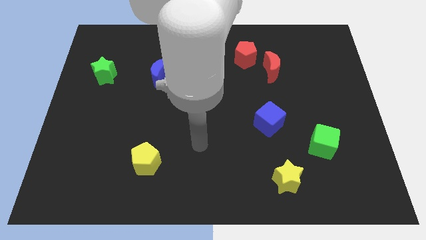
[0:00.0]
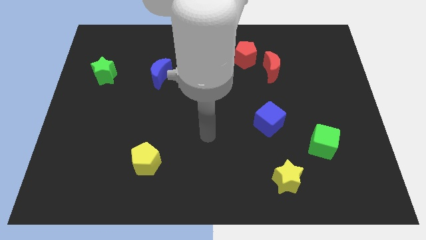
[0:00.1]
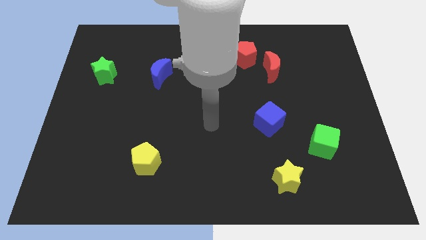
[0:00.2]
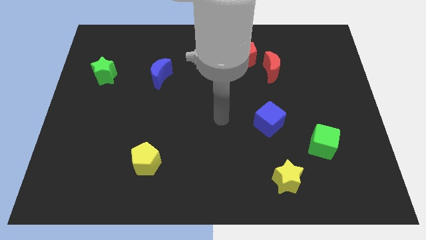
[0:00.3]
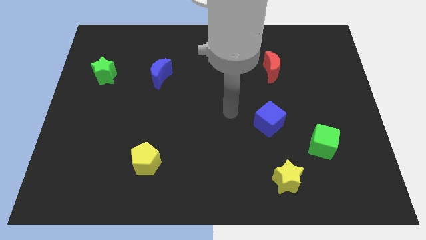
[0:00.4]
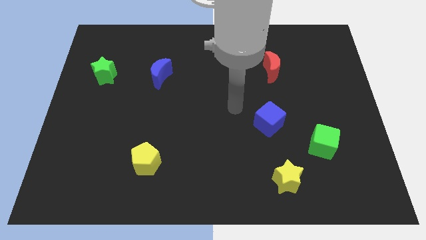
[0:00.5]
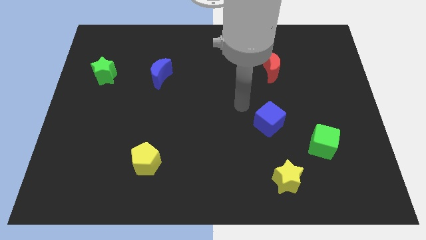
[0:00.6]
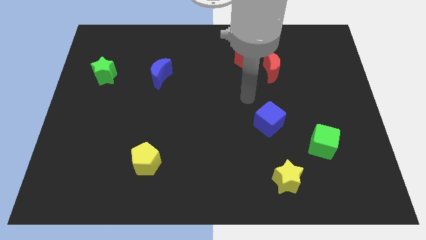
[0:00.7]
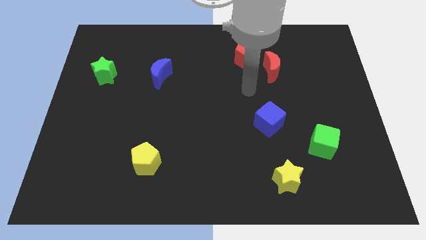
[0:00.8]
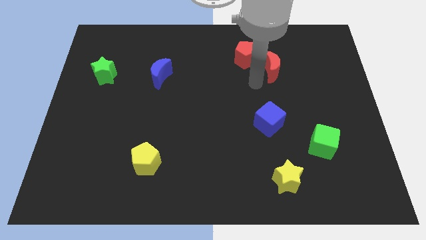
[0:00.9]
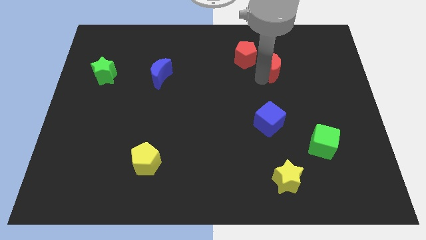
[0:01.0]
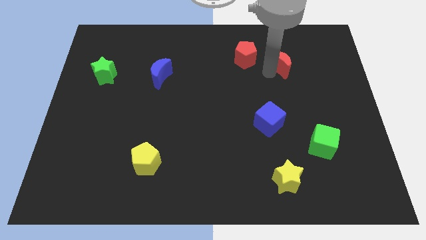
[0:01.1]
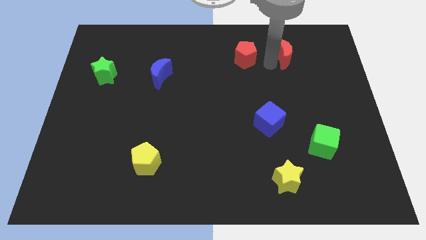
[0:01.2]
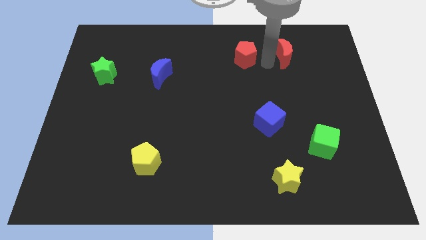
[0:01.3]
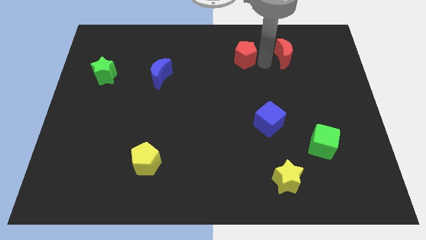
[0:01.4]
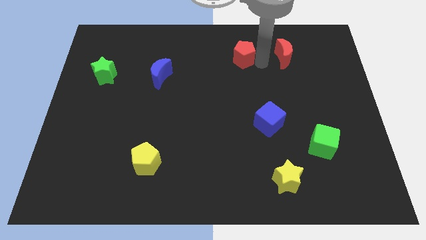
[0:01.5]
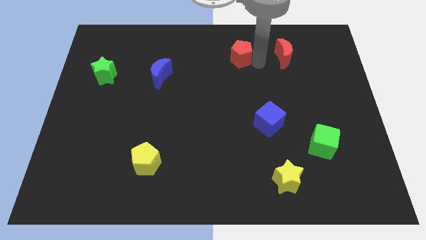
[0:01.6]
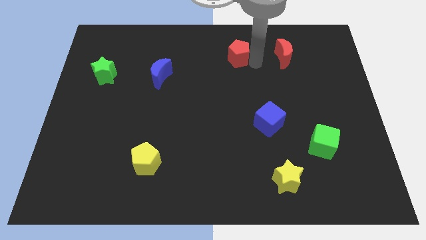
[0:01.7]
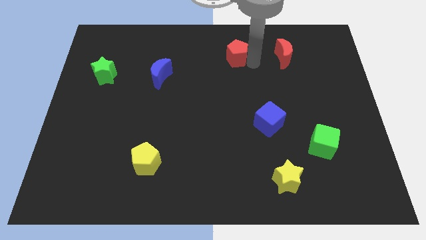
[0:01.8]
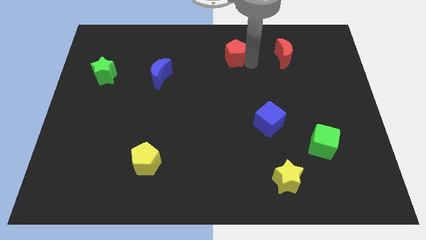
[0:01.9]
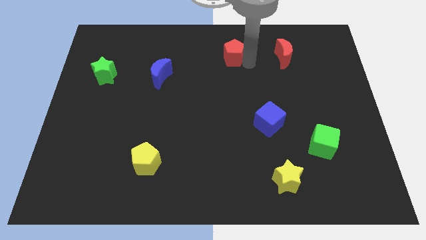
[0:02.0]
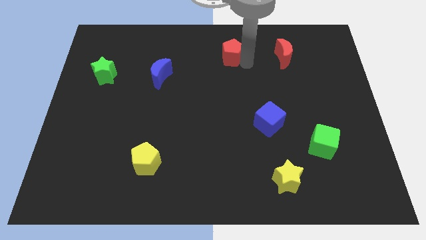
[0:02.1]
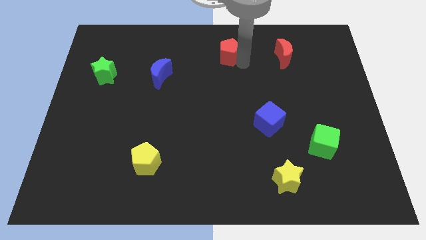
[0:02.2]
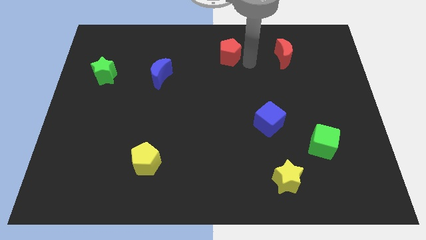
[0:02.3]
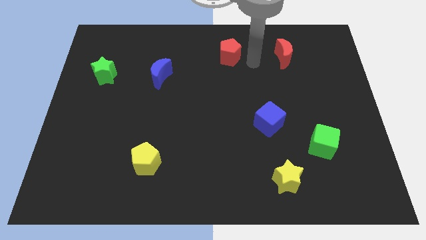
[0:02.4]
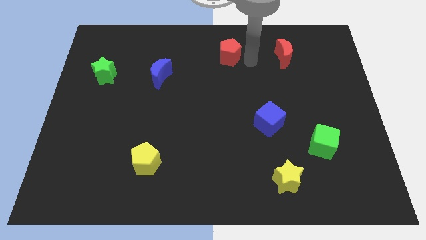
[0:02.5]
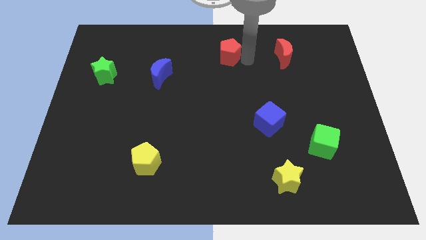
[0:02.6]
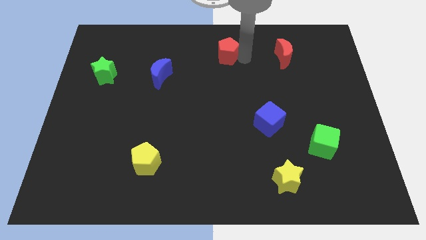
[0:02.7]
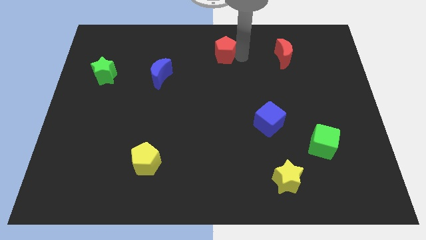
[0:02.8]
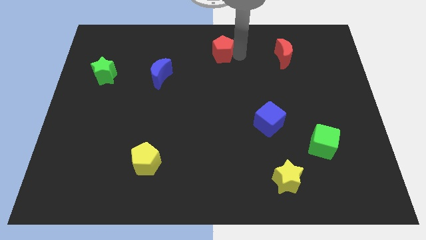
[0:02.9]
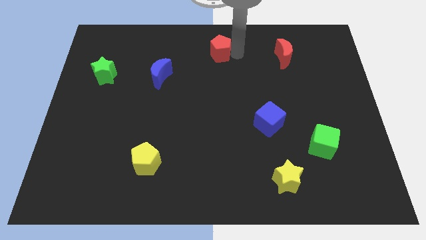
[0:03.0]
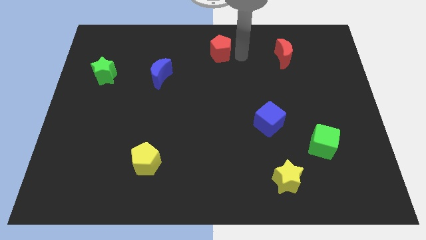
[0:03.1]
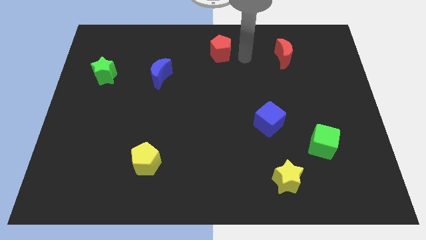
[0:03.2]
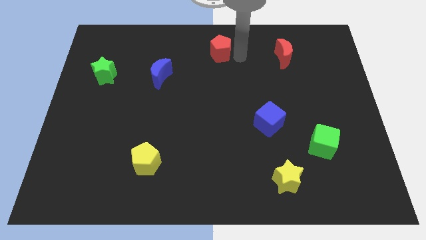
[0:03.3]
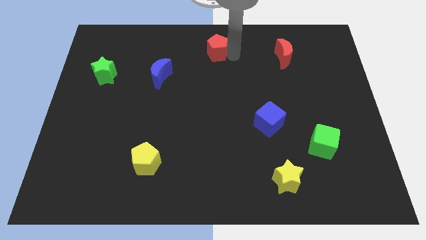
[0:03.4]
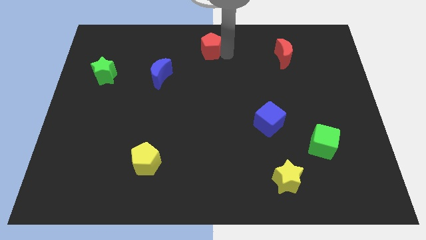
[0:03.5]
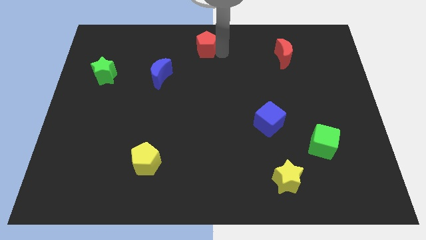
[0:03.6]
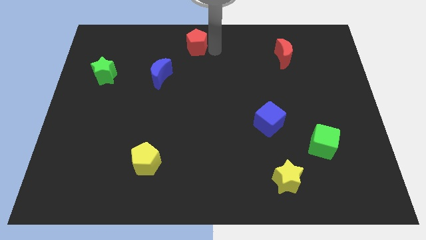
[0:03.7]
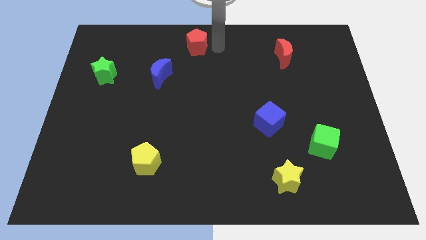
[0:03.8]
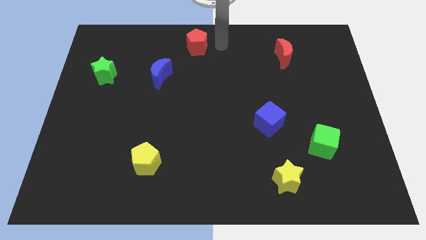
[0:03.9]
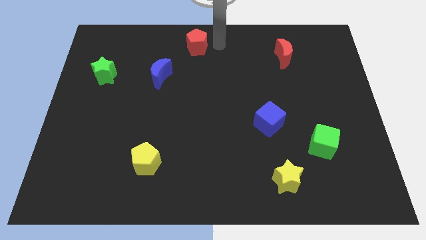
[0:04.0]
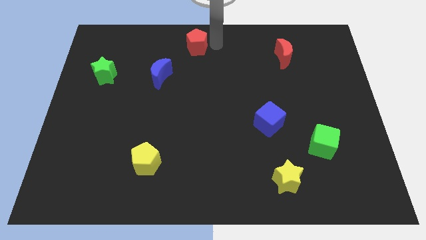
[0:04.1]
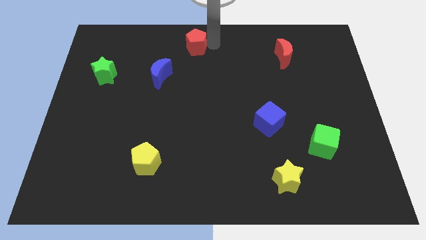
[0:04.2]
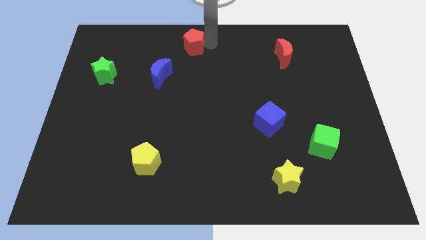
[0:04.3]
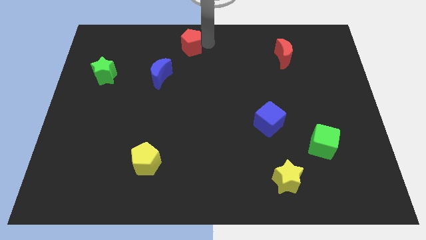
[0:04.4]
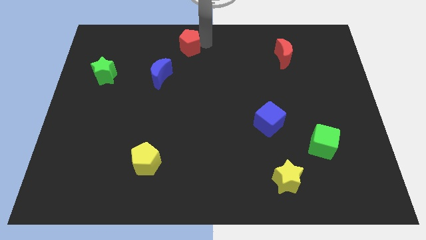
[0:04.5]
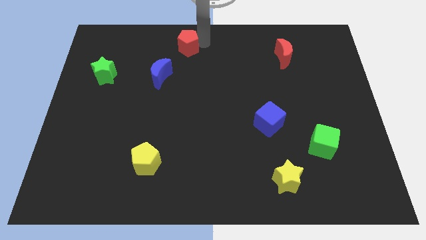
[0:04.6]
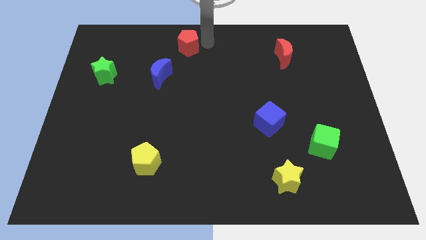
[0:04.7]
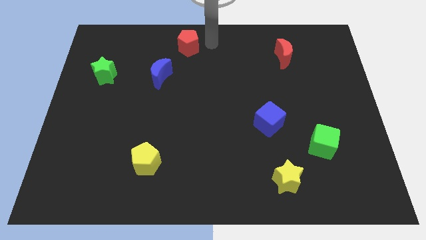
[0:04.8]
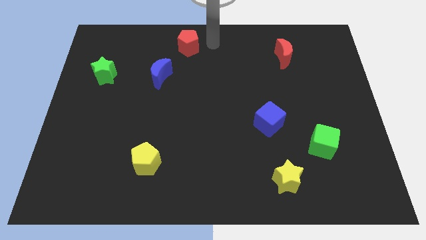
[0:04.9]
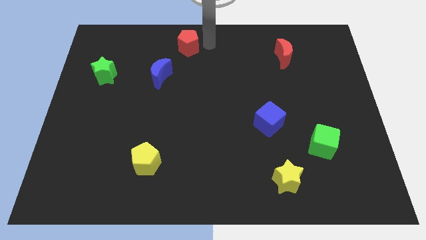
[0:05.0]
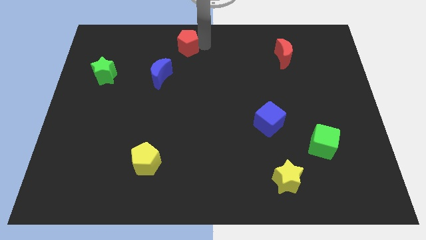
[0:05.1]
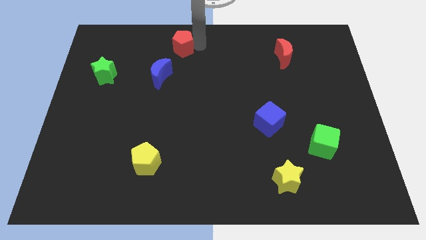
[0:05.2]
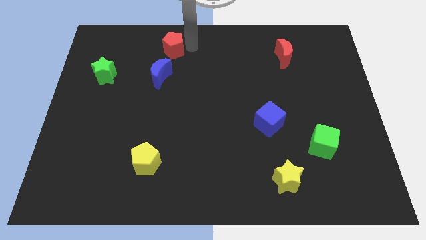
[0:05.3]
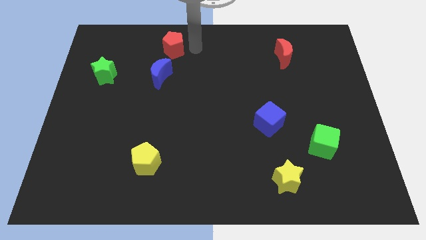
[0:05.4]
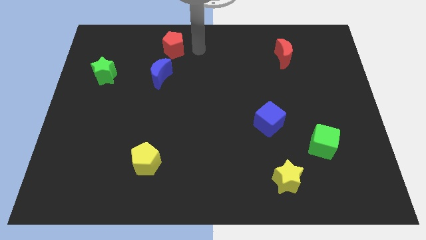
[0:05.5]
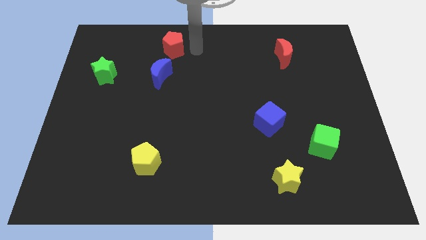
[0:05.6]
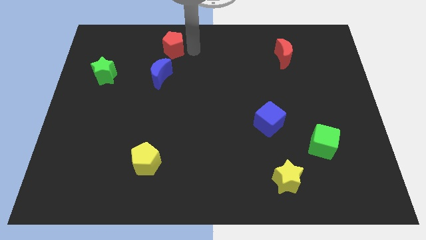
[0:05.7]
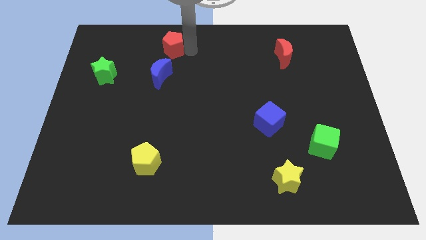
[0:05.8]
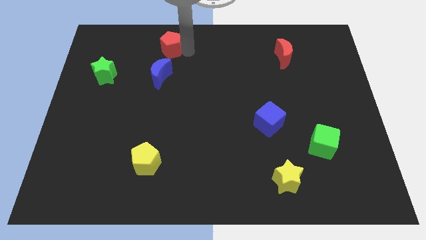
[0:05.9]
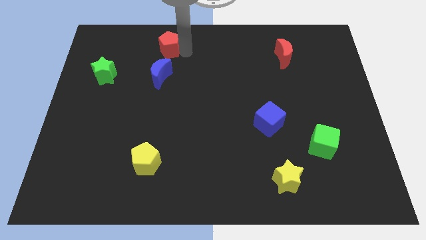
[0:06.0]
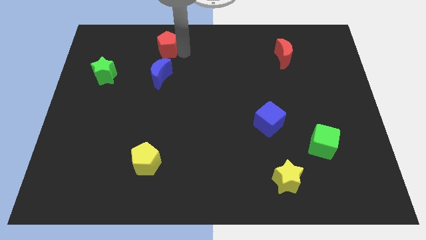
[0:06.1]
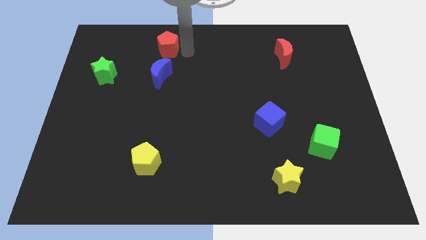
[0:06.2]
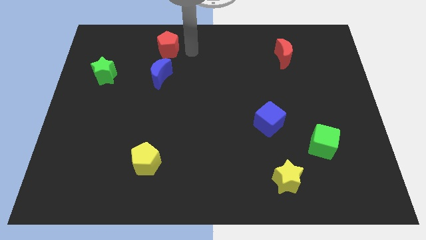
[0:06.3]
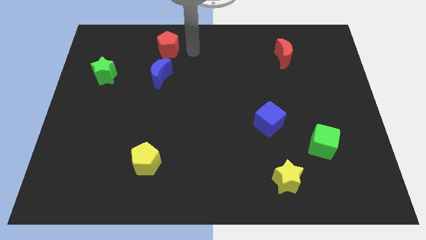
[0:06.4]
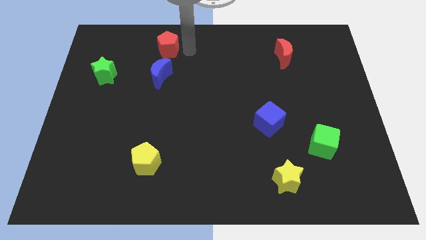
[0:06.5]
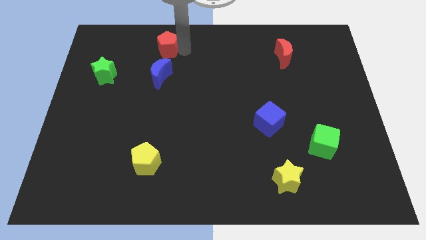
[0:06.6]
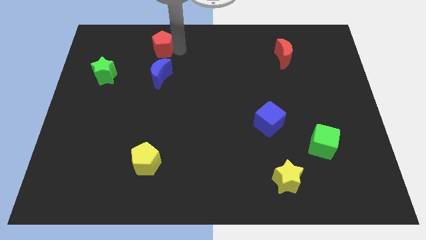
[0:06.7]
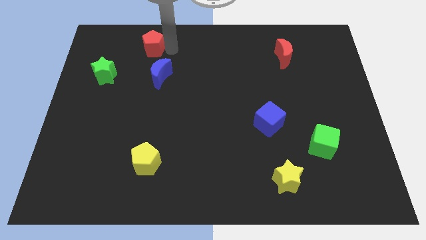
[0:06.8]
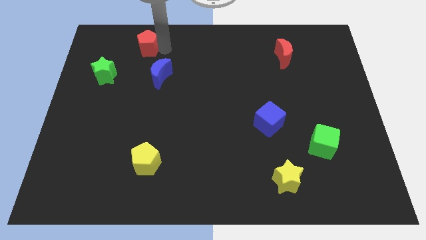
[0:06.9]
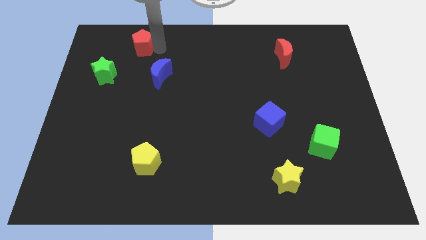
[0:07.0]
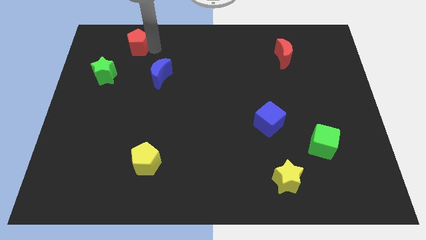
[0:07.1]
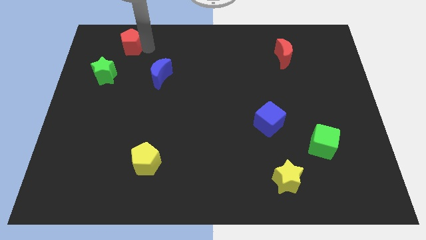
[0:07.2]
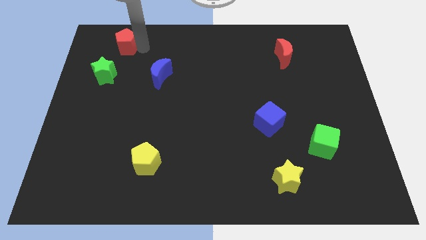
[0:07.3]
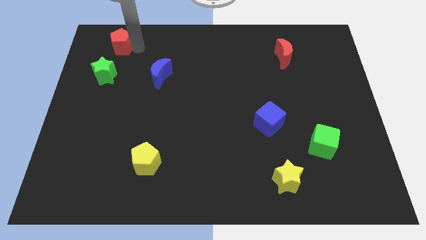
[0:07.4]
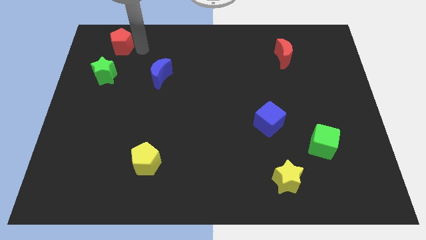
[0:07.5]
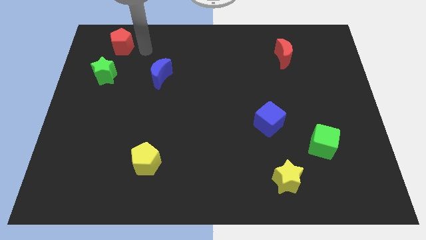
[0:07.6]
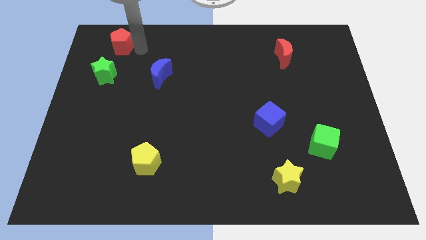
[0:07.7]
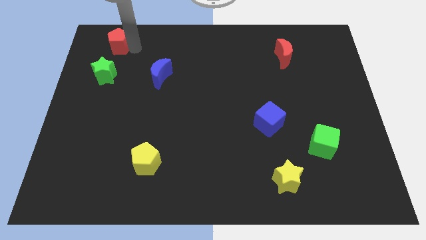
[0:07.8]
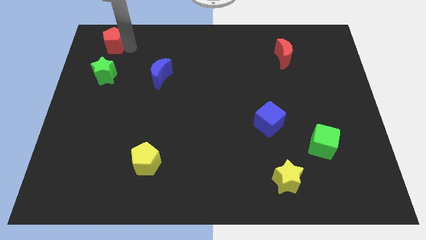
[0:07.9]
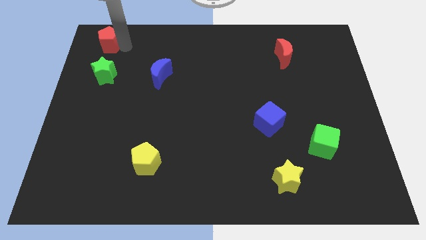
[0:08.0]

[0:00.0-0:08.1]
put the red pentagon to the top left corner
